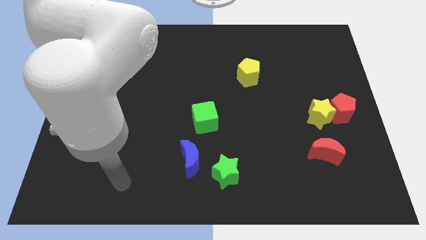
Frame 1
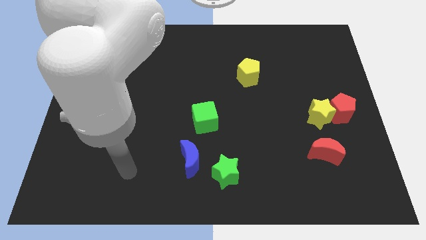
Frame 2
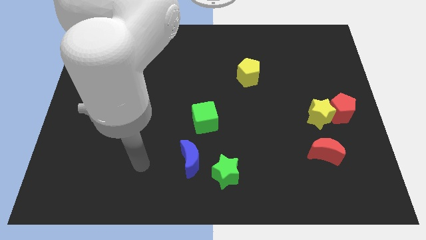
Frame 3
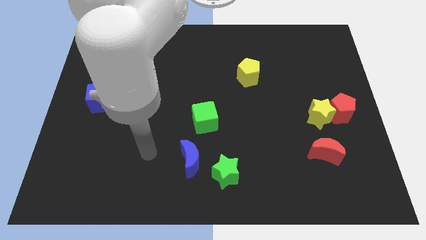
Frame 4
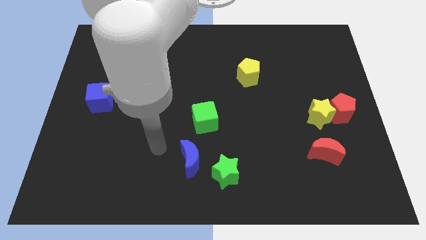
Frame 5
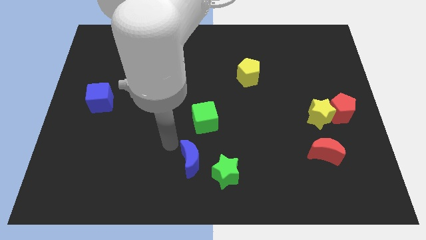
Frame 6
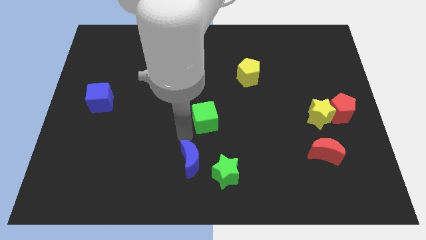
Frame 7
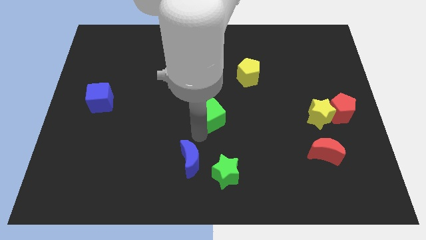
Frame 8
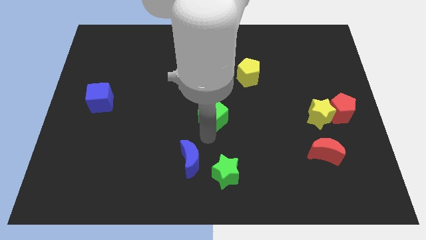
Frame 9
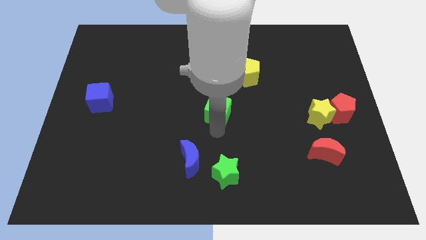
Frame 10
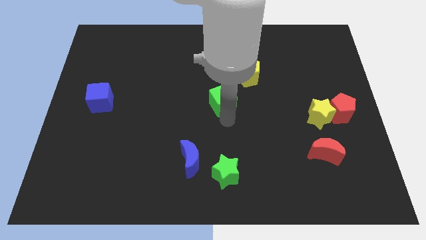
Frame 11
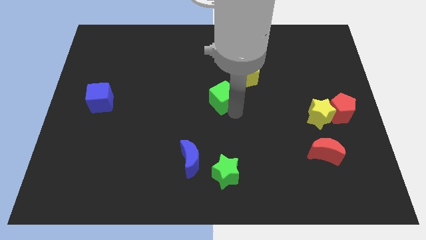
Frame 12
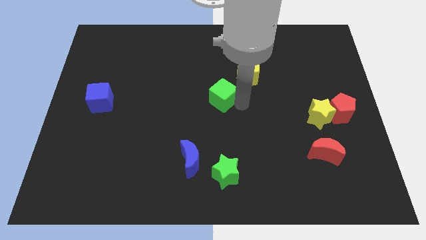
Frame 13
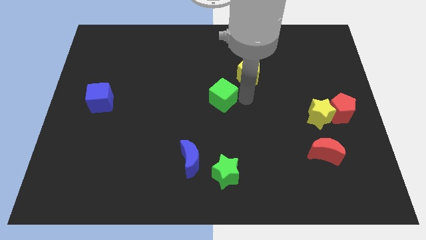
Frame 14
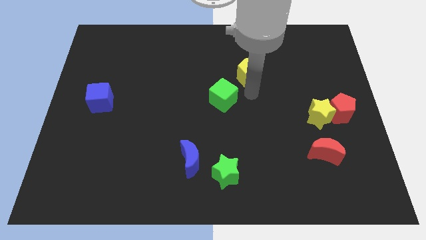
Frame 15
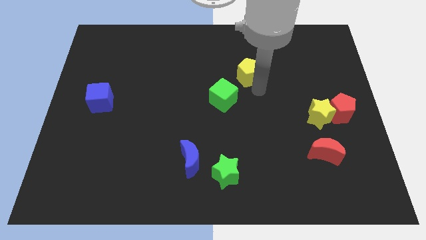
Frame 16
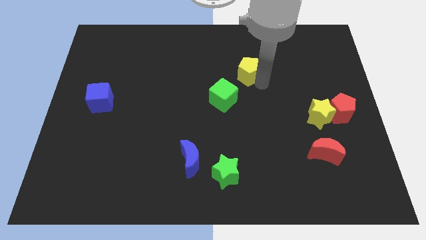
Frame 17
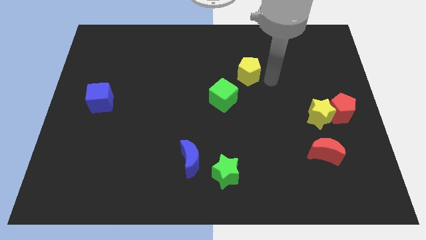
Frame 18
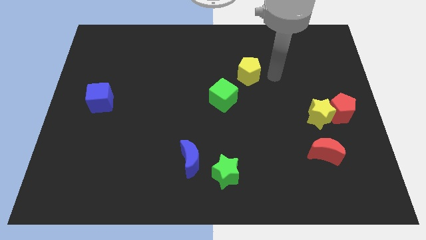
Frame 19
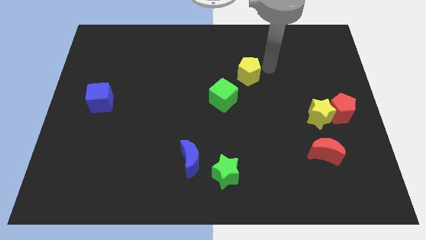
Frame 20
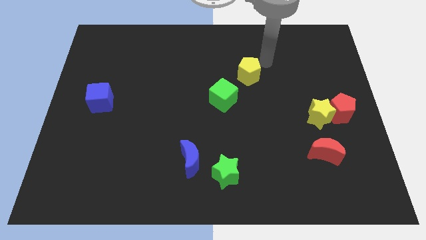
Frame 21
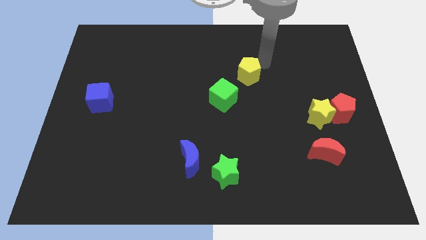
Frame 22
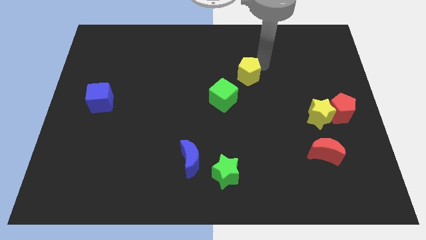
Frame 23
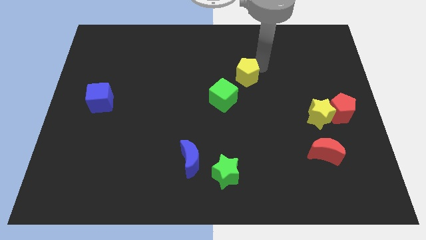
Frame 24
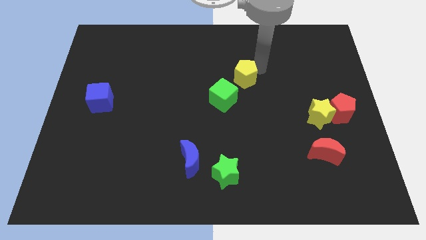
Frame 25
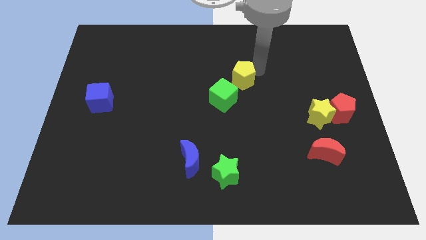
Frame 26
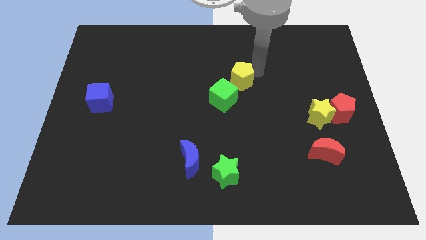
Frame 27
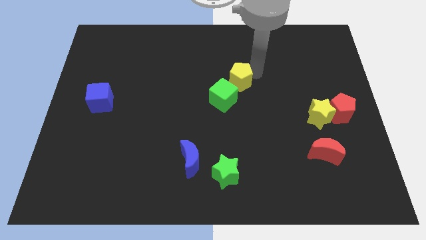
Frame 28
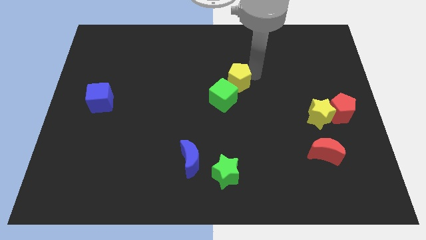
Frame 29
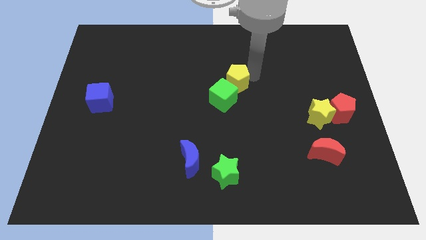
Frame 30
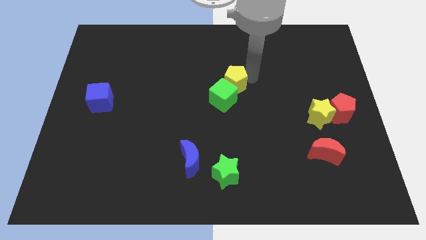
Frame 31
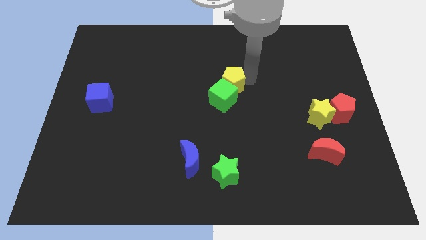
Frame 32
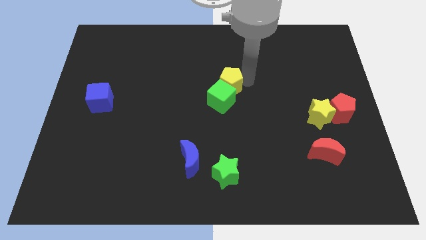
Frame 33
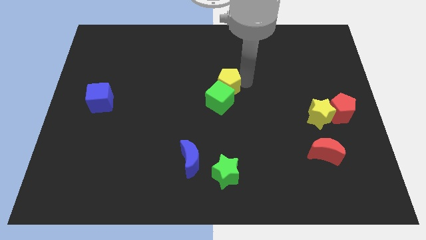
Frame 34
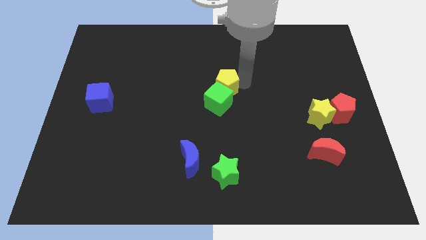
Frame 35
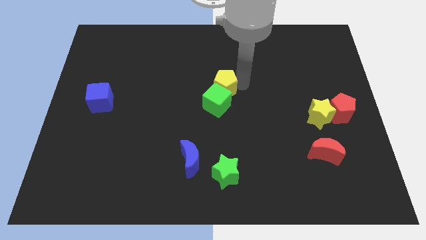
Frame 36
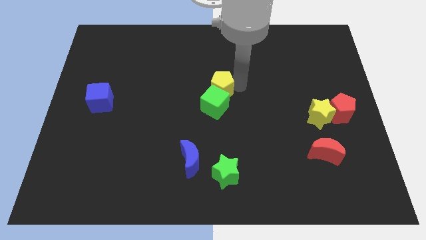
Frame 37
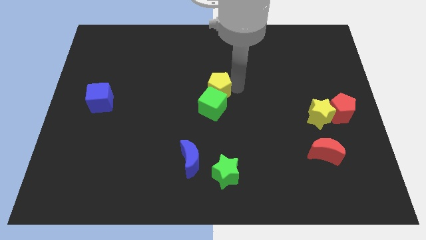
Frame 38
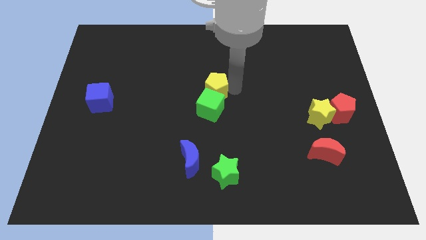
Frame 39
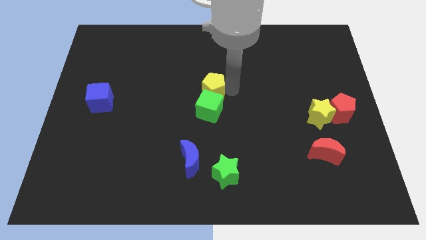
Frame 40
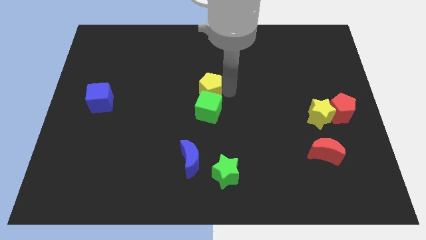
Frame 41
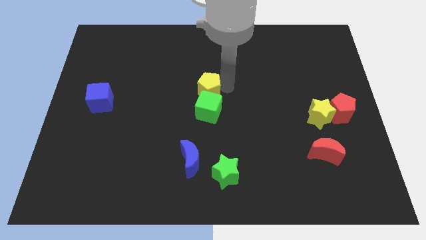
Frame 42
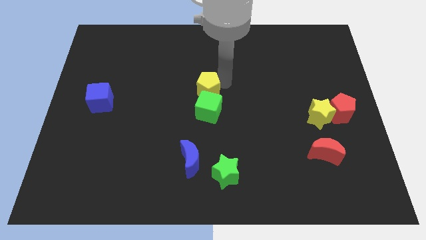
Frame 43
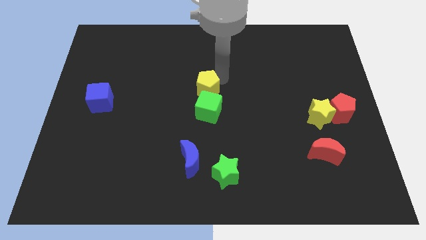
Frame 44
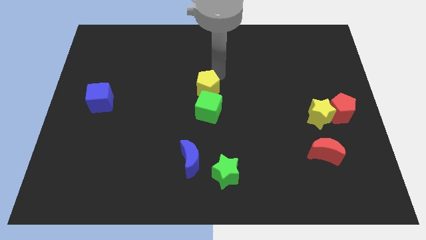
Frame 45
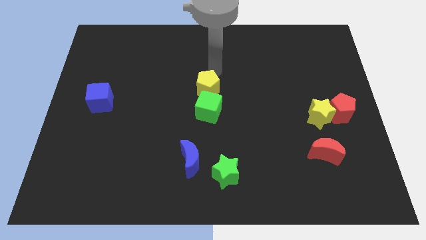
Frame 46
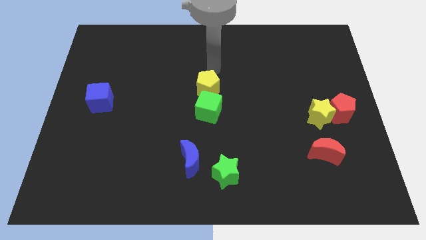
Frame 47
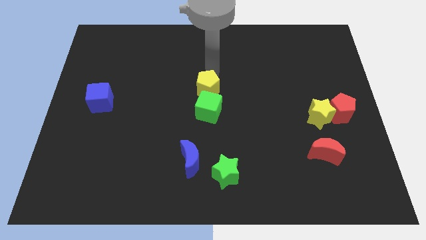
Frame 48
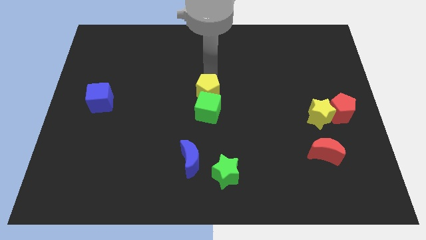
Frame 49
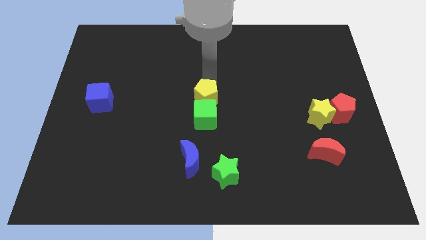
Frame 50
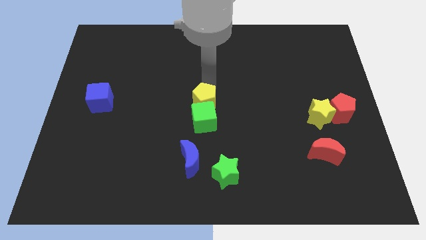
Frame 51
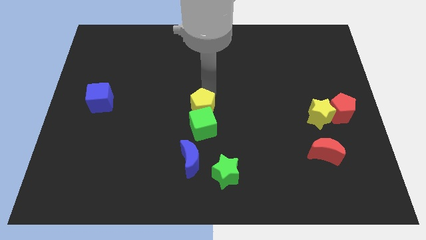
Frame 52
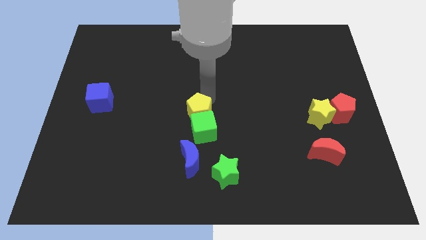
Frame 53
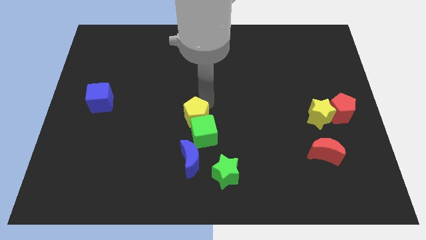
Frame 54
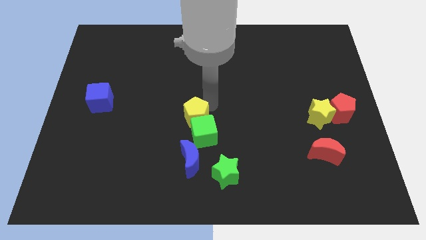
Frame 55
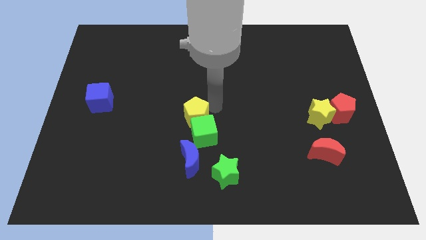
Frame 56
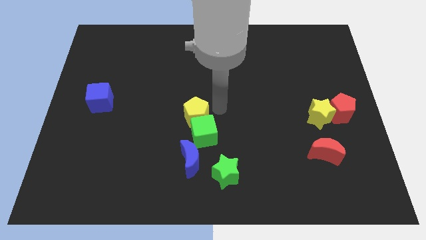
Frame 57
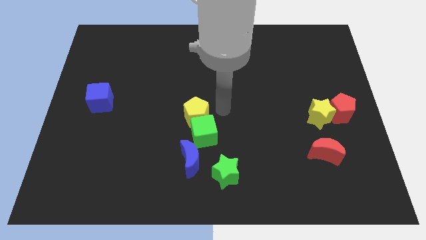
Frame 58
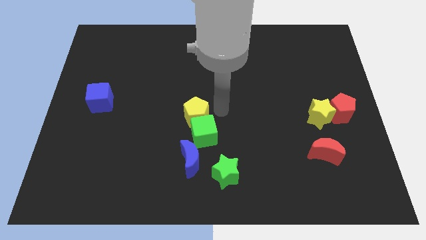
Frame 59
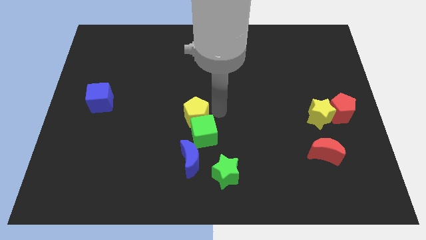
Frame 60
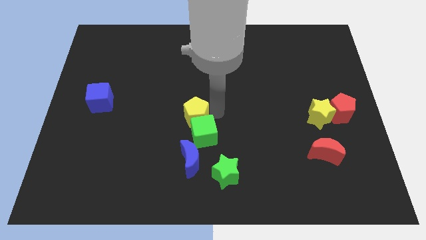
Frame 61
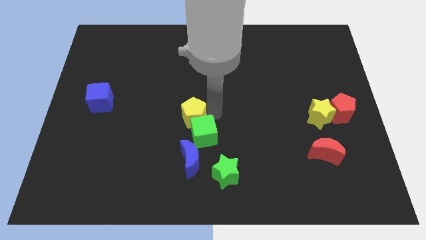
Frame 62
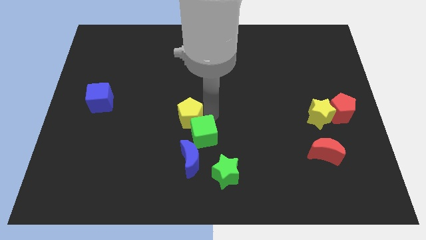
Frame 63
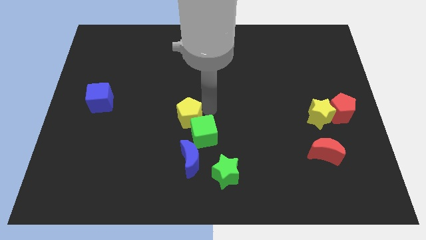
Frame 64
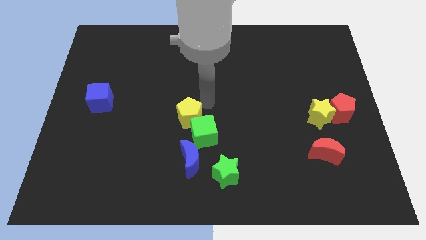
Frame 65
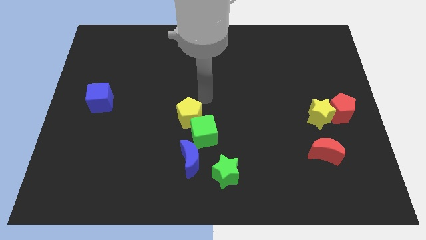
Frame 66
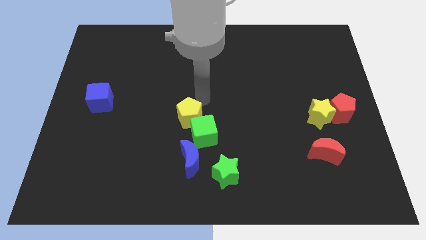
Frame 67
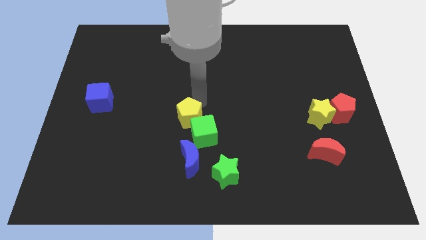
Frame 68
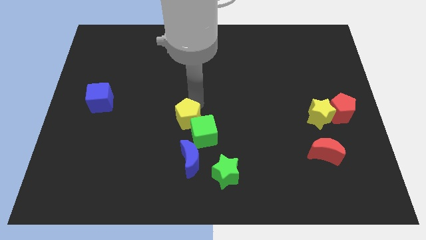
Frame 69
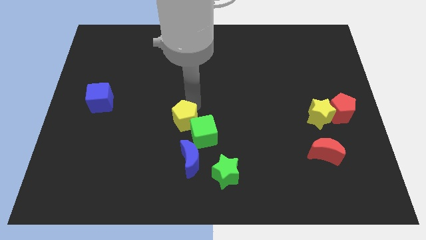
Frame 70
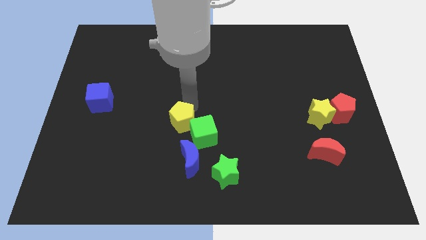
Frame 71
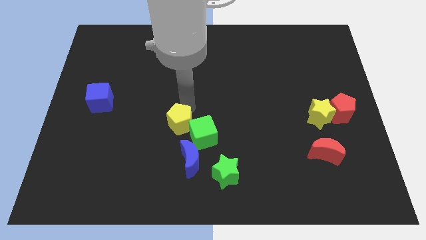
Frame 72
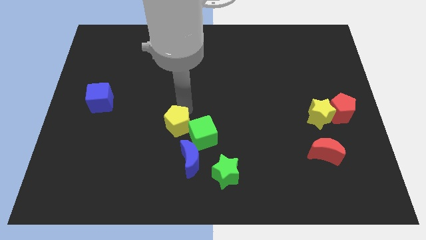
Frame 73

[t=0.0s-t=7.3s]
push the yellow pentagon diagonally up and to the left of the blue moon
